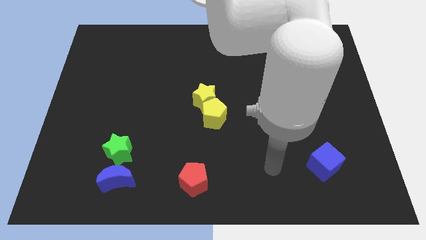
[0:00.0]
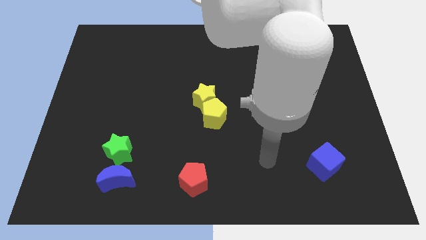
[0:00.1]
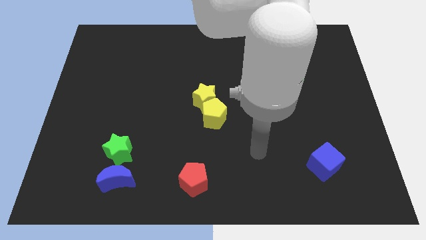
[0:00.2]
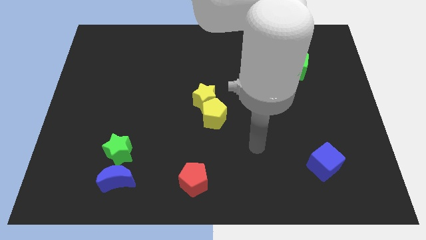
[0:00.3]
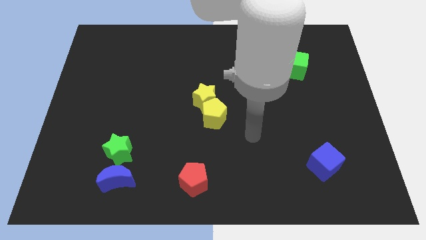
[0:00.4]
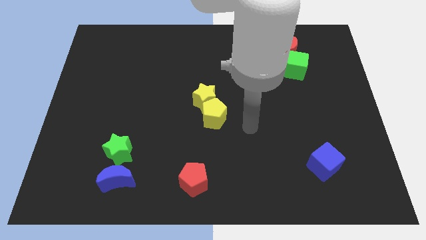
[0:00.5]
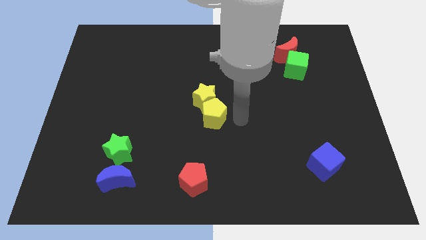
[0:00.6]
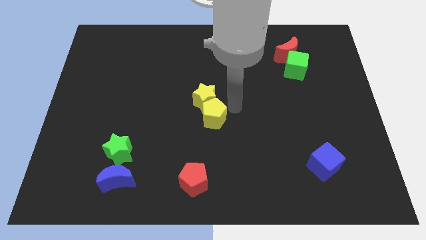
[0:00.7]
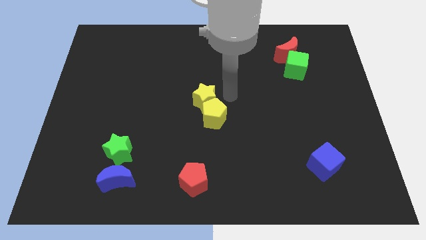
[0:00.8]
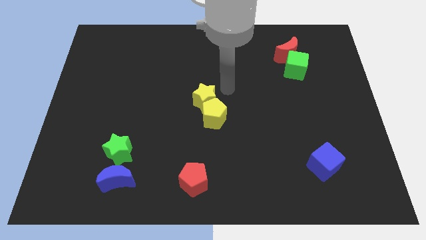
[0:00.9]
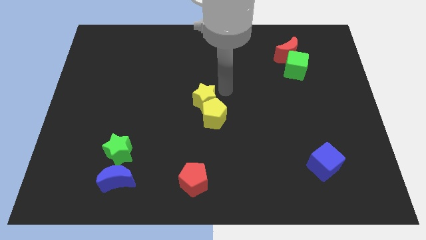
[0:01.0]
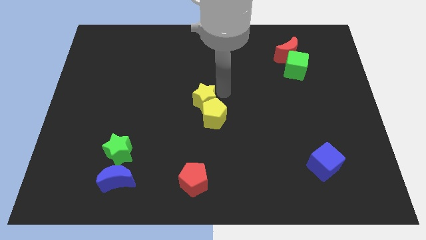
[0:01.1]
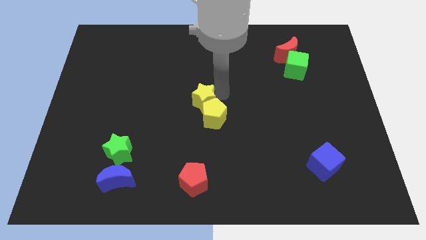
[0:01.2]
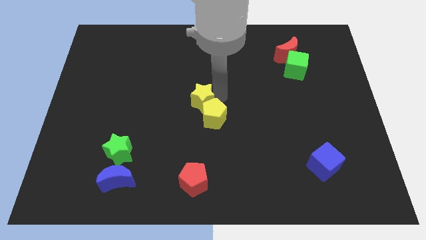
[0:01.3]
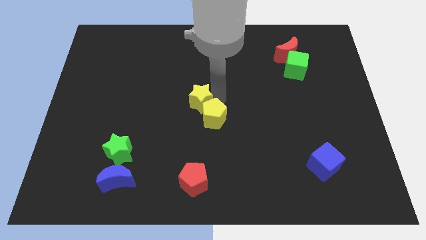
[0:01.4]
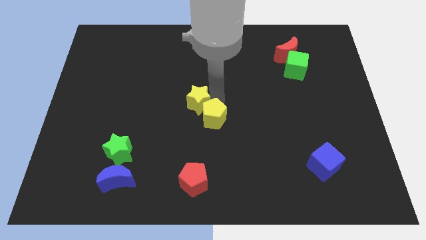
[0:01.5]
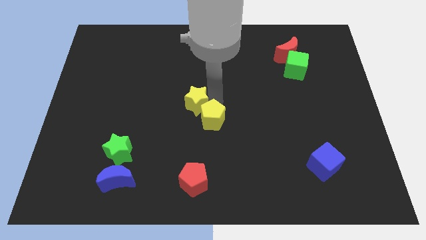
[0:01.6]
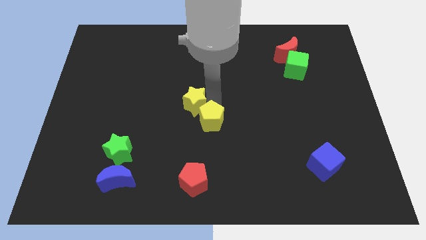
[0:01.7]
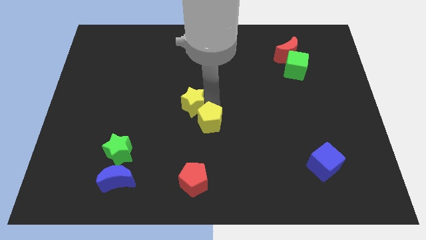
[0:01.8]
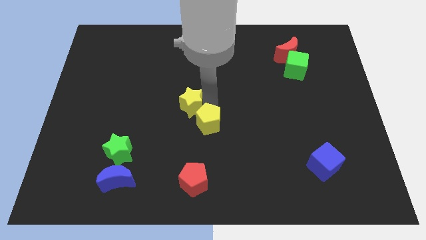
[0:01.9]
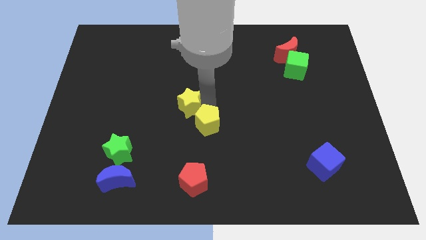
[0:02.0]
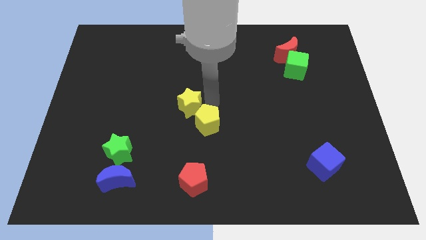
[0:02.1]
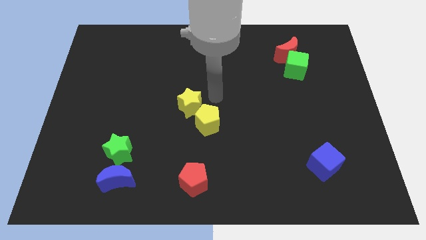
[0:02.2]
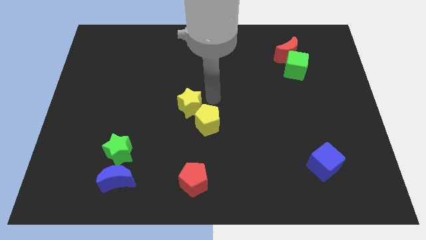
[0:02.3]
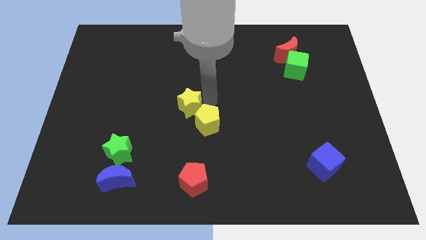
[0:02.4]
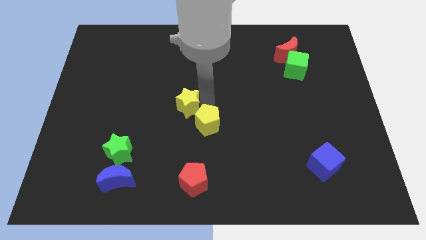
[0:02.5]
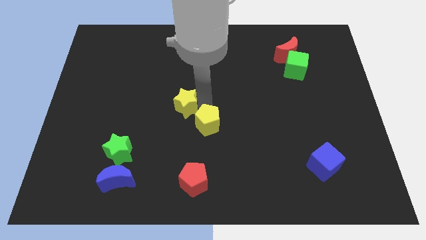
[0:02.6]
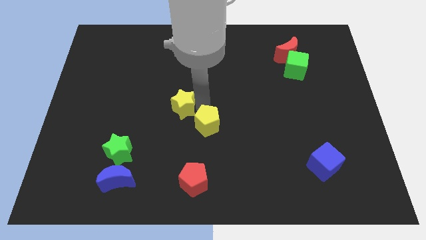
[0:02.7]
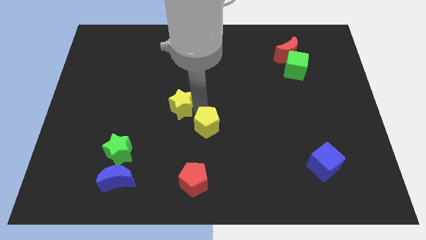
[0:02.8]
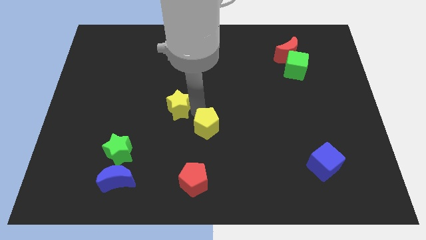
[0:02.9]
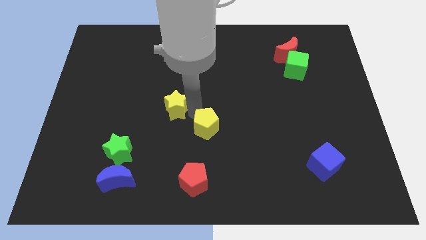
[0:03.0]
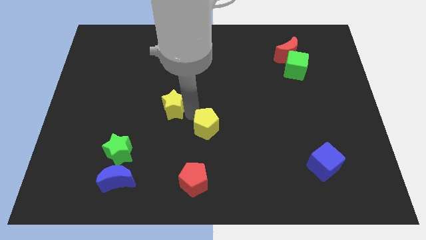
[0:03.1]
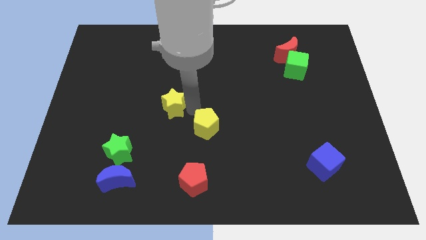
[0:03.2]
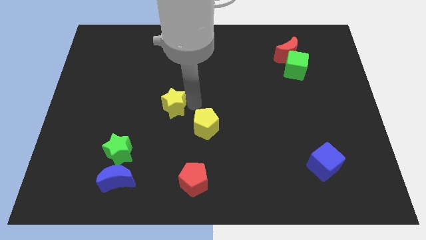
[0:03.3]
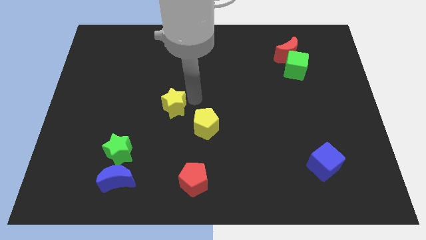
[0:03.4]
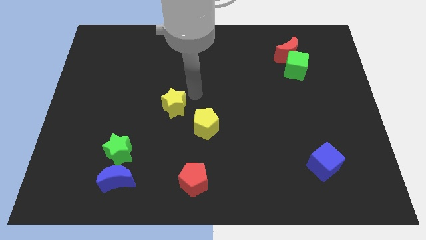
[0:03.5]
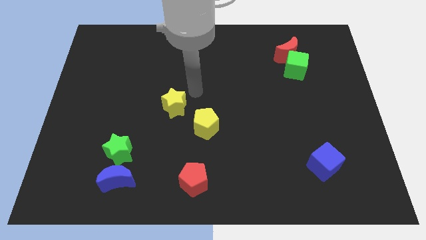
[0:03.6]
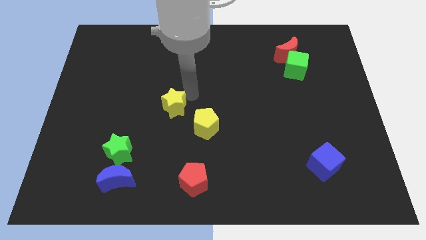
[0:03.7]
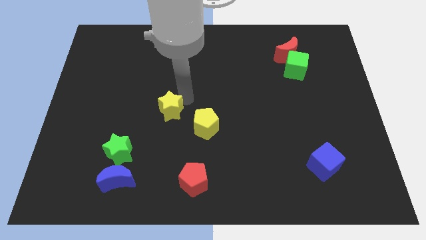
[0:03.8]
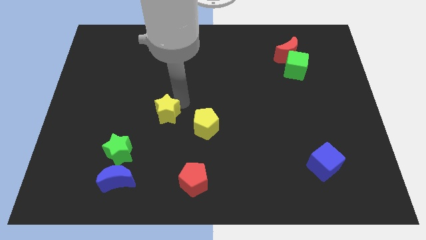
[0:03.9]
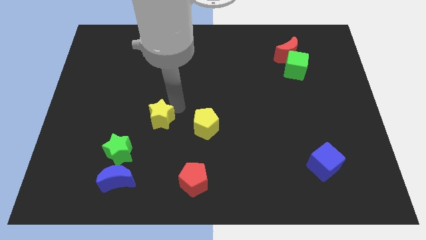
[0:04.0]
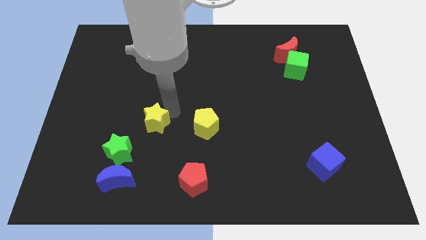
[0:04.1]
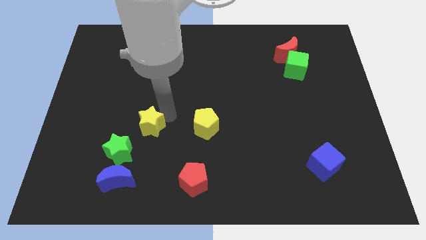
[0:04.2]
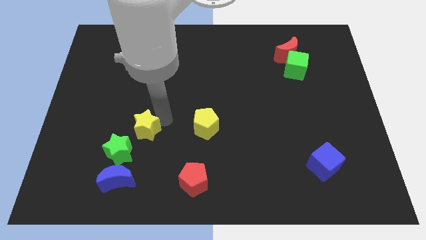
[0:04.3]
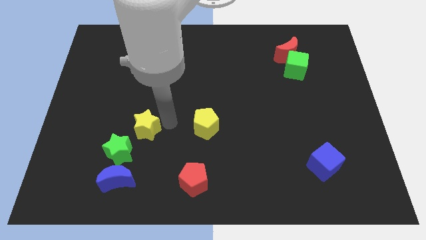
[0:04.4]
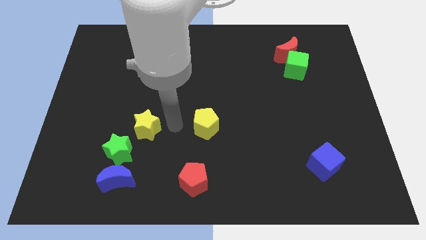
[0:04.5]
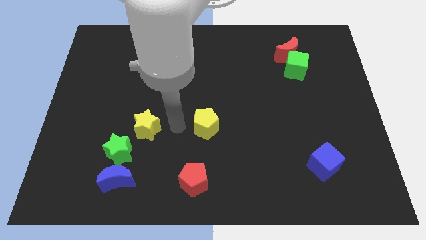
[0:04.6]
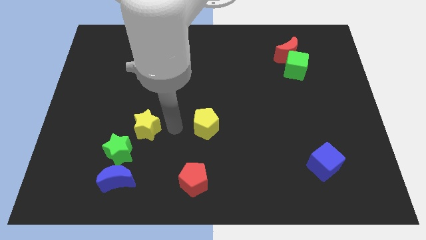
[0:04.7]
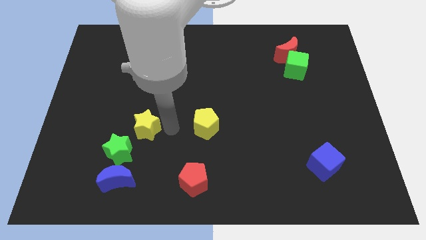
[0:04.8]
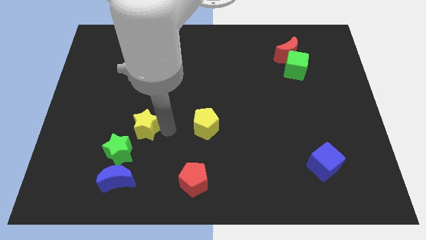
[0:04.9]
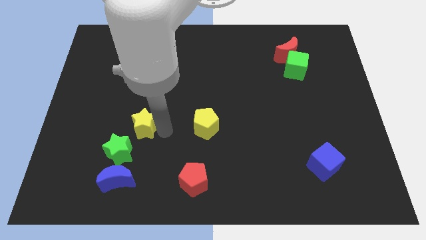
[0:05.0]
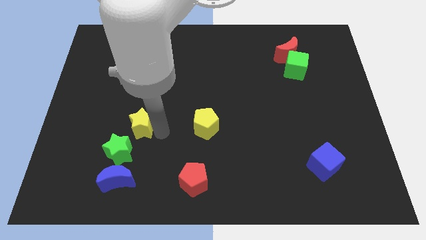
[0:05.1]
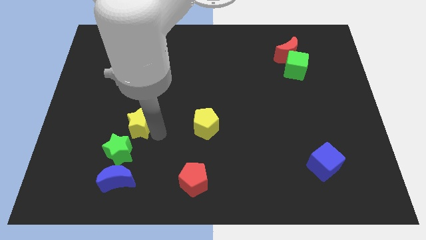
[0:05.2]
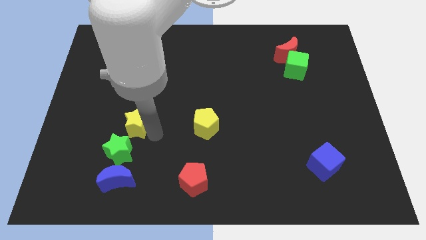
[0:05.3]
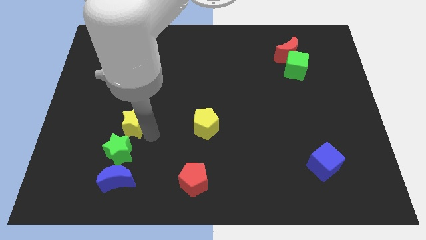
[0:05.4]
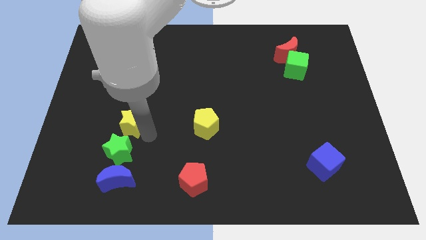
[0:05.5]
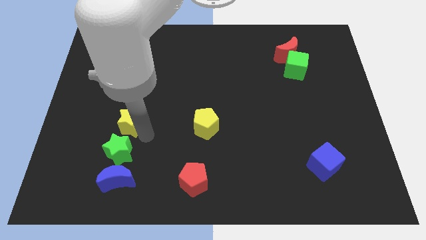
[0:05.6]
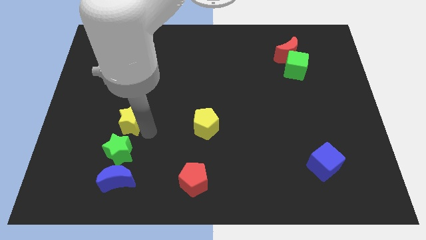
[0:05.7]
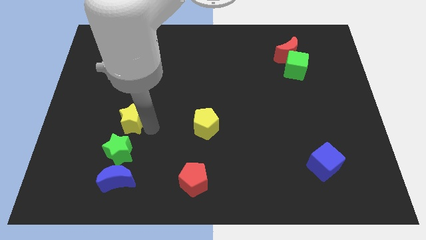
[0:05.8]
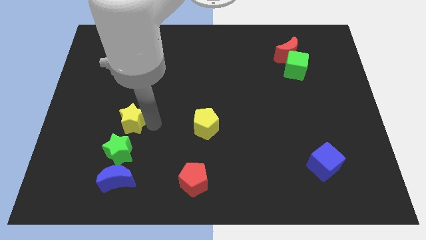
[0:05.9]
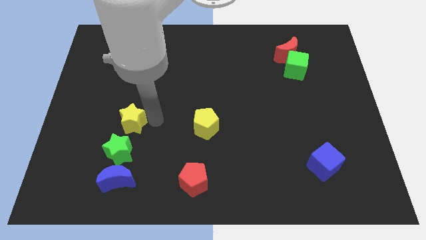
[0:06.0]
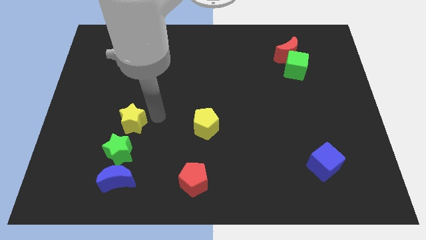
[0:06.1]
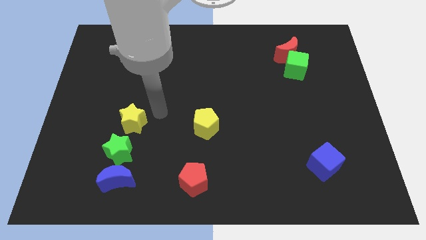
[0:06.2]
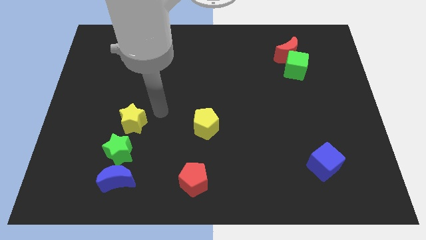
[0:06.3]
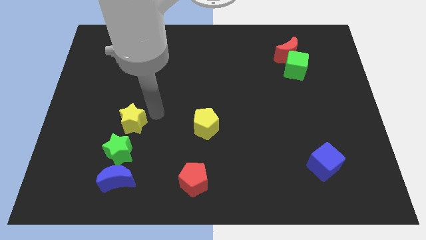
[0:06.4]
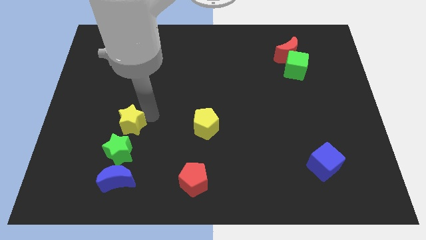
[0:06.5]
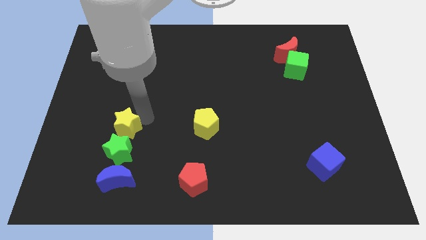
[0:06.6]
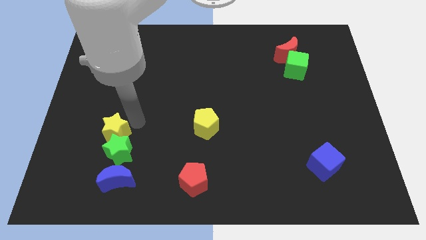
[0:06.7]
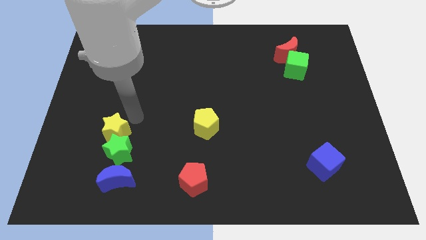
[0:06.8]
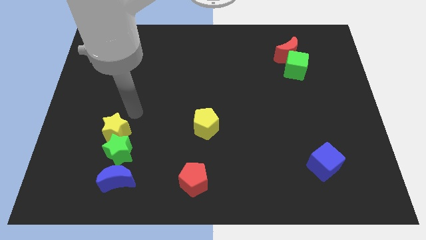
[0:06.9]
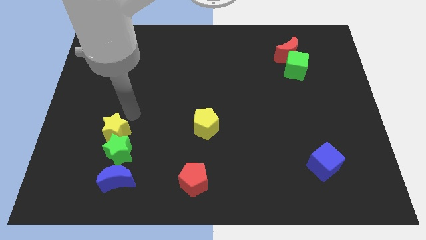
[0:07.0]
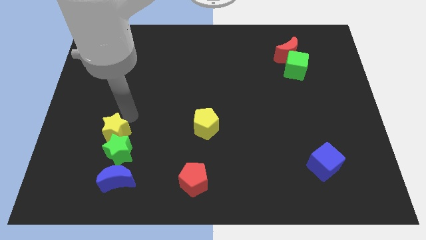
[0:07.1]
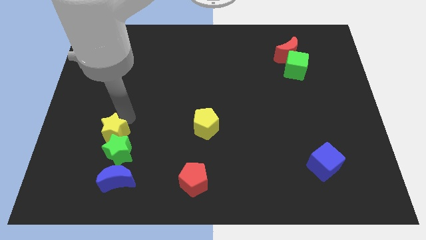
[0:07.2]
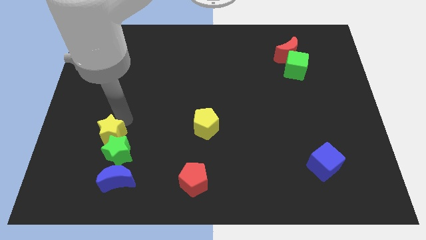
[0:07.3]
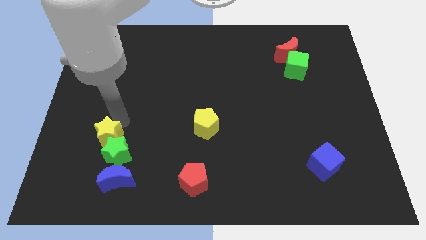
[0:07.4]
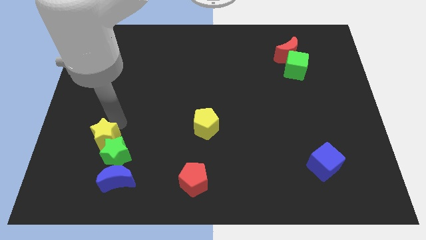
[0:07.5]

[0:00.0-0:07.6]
put the yellow star to the top left of the blue moon
